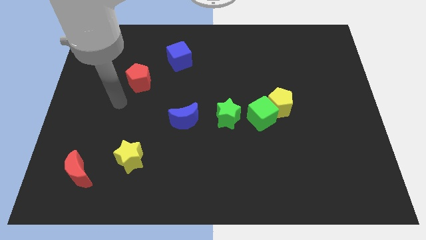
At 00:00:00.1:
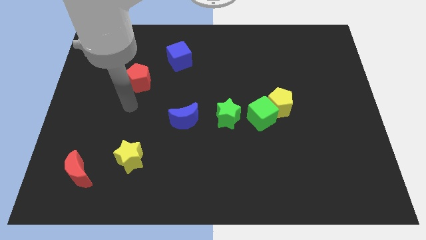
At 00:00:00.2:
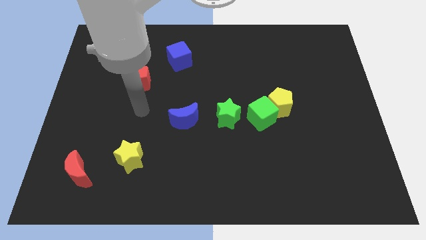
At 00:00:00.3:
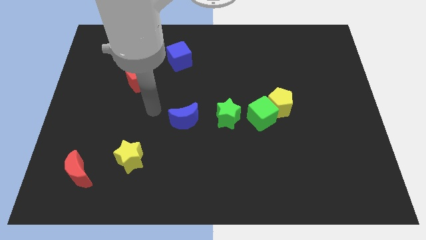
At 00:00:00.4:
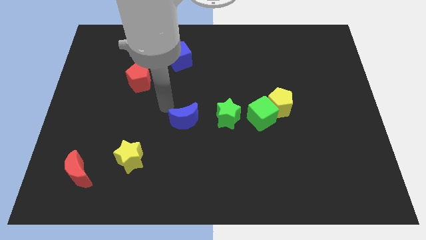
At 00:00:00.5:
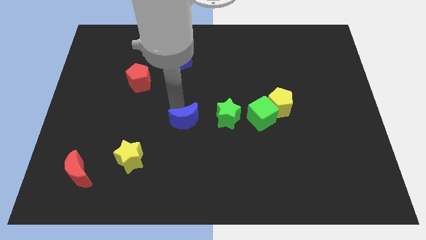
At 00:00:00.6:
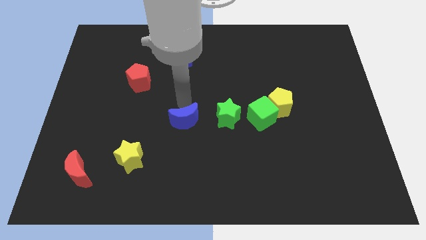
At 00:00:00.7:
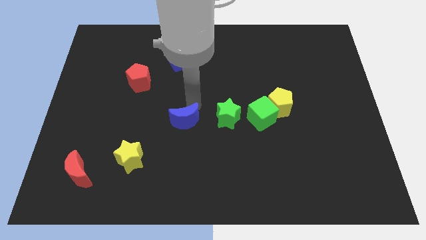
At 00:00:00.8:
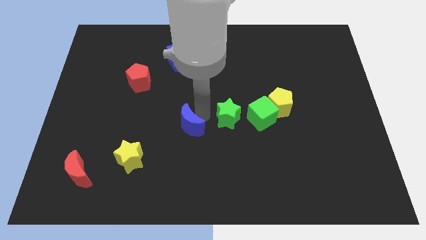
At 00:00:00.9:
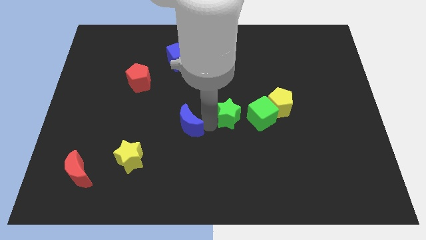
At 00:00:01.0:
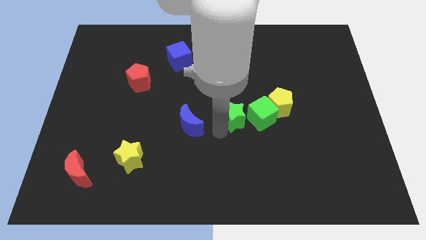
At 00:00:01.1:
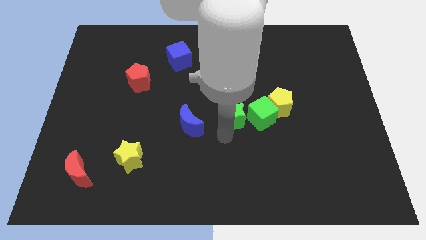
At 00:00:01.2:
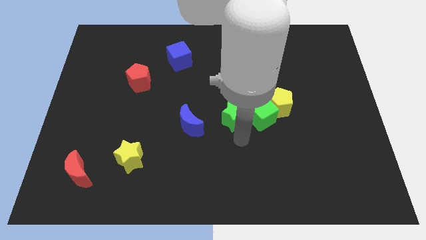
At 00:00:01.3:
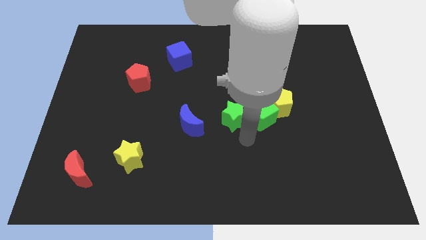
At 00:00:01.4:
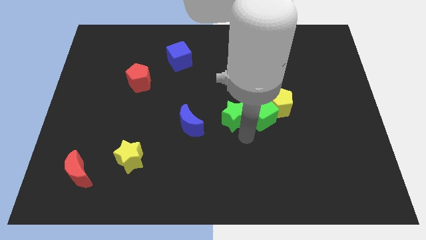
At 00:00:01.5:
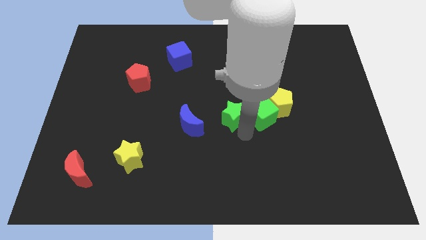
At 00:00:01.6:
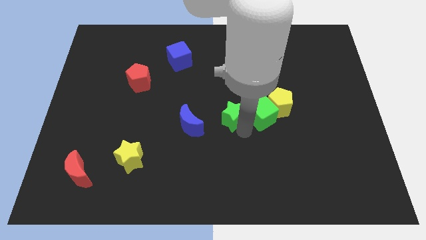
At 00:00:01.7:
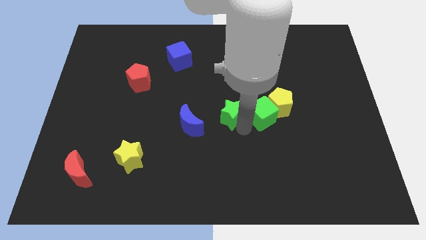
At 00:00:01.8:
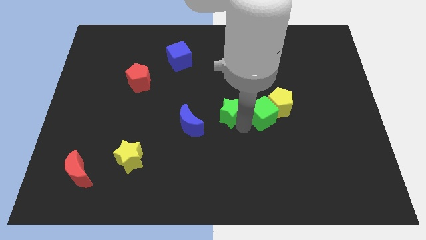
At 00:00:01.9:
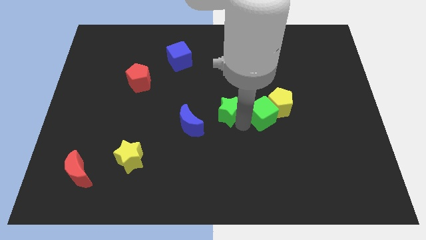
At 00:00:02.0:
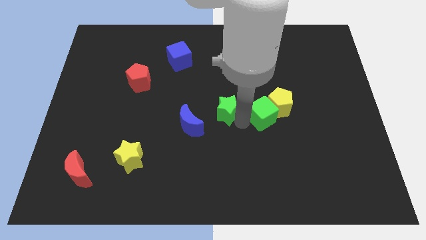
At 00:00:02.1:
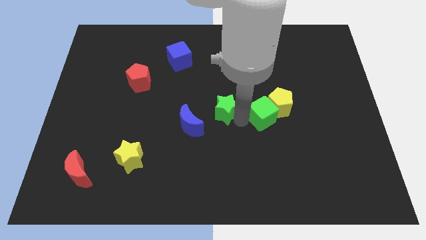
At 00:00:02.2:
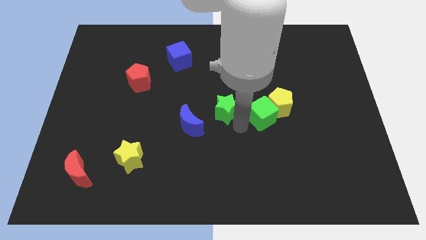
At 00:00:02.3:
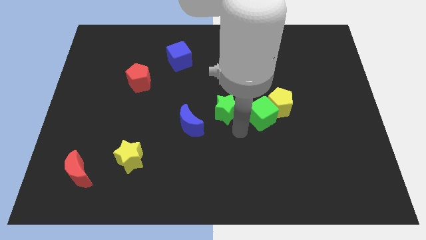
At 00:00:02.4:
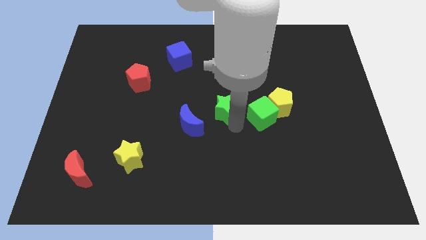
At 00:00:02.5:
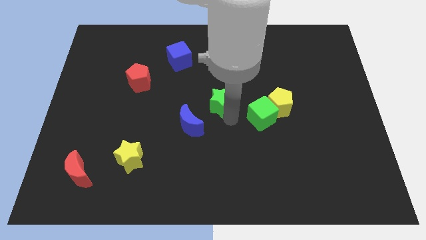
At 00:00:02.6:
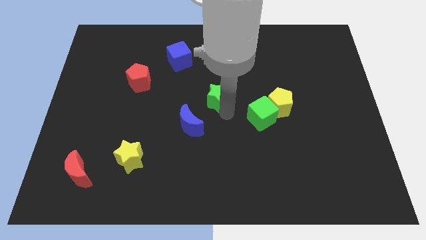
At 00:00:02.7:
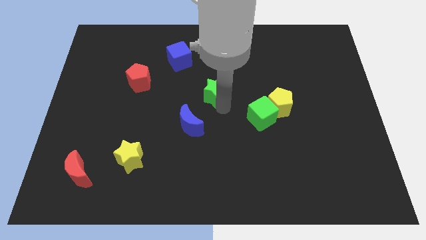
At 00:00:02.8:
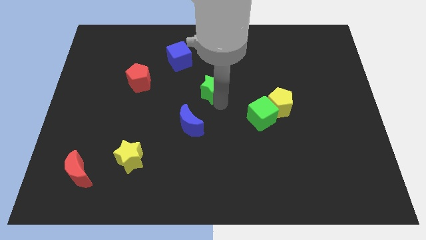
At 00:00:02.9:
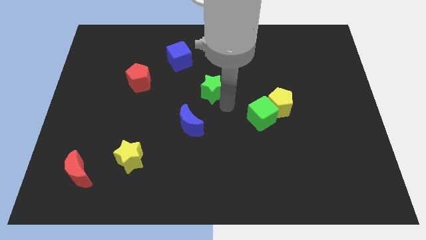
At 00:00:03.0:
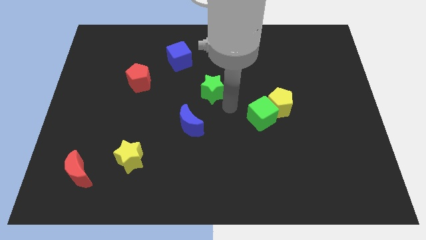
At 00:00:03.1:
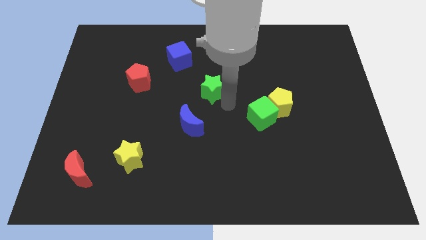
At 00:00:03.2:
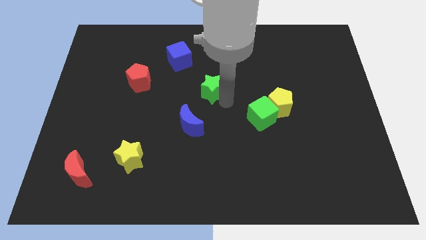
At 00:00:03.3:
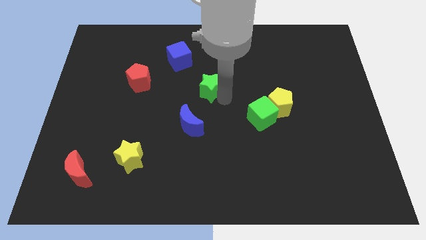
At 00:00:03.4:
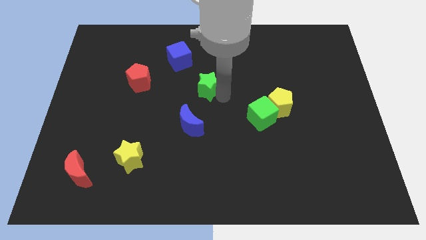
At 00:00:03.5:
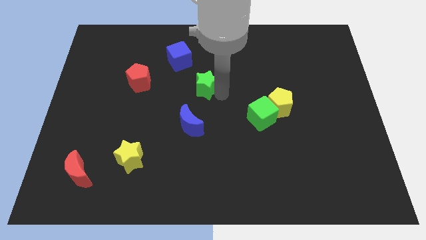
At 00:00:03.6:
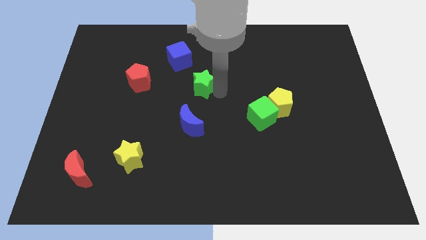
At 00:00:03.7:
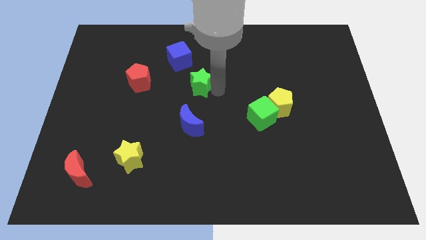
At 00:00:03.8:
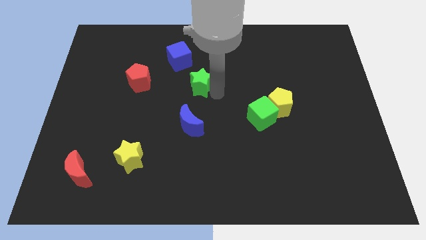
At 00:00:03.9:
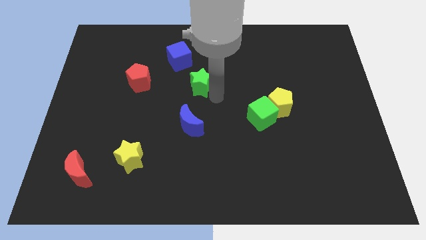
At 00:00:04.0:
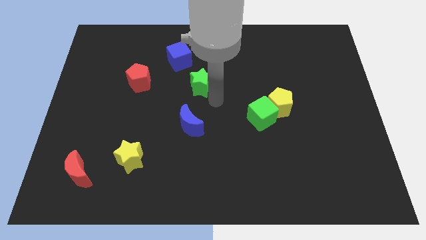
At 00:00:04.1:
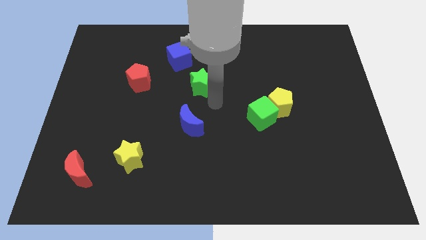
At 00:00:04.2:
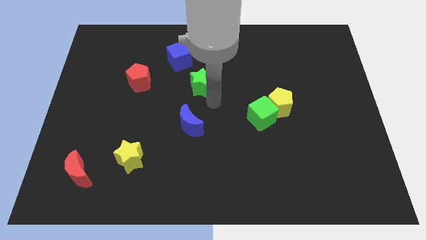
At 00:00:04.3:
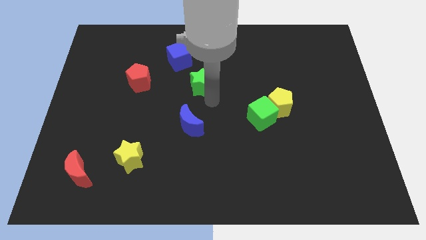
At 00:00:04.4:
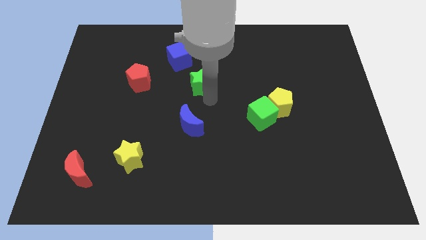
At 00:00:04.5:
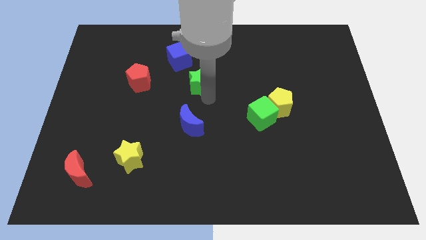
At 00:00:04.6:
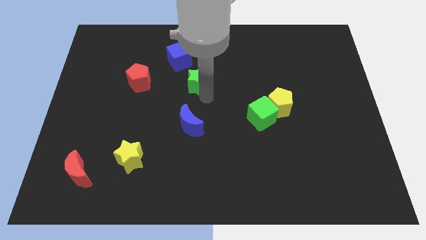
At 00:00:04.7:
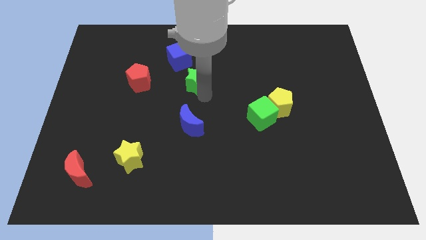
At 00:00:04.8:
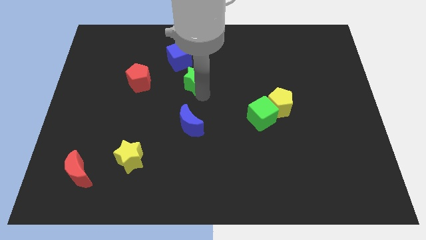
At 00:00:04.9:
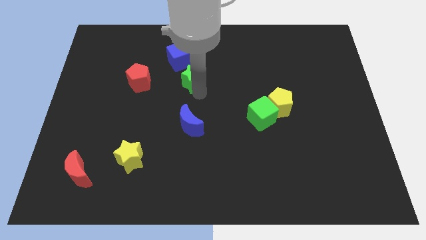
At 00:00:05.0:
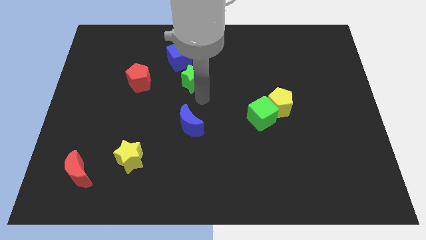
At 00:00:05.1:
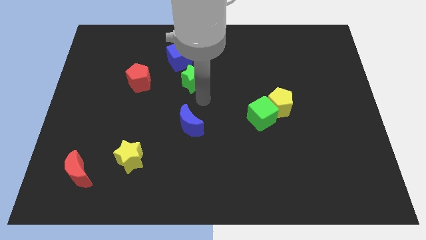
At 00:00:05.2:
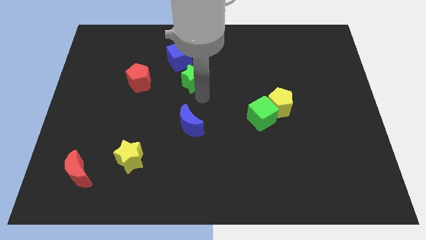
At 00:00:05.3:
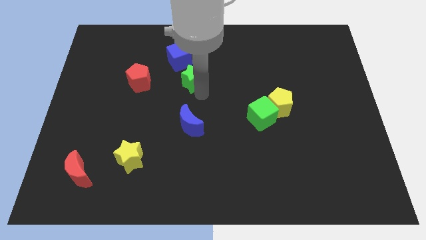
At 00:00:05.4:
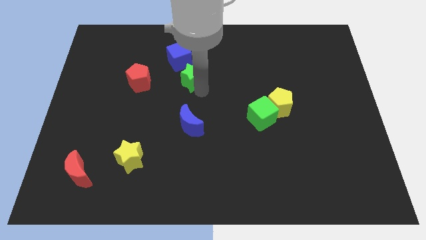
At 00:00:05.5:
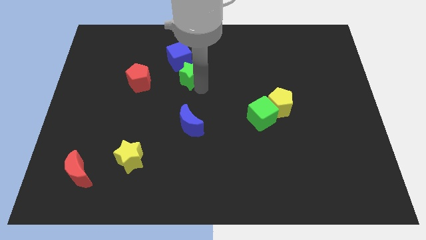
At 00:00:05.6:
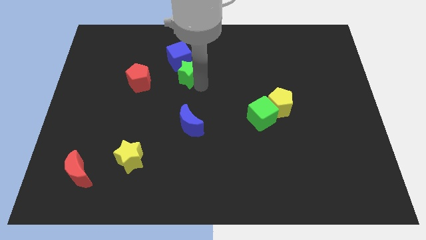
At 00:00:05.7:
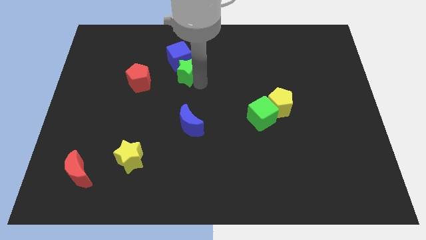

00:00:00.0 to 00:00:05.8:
push the green star close to the blue cube

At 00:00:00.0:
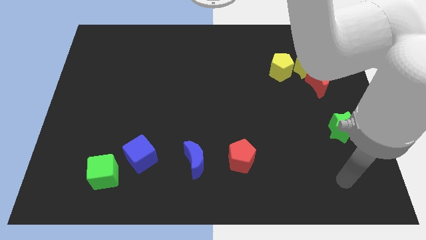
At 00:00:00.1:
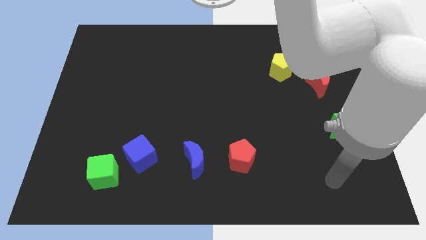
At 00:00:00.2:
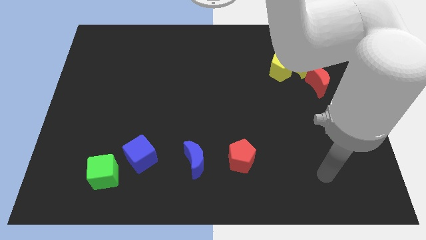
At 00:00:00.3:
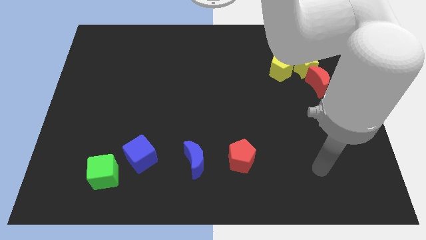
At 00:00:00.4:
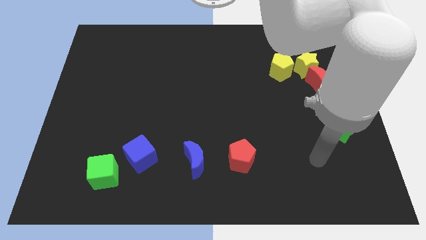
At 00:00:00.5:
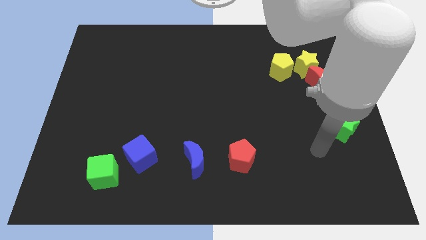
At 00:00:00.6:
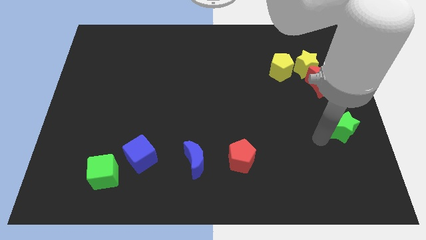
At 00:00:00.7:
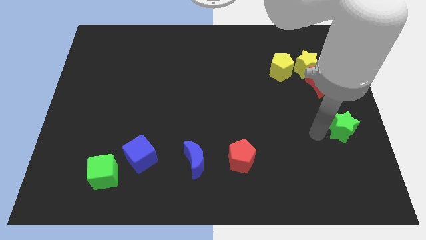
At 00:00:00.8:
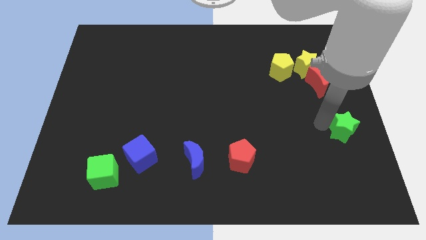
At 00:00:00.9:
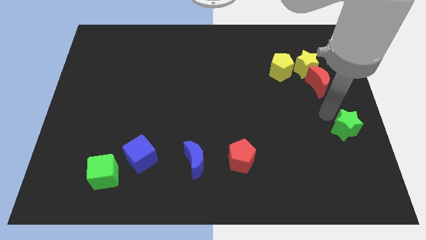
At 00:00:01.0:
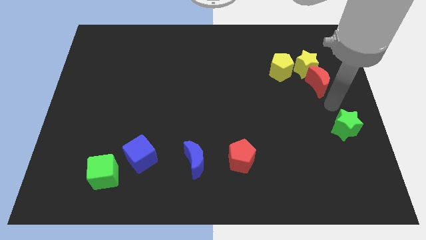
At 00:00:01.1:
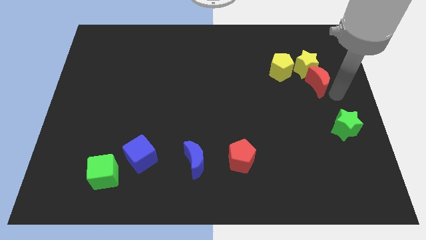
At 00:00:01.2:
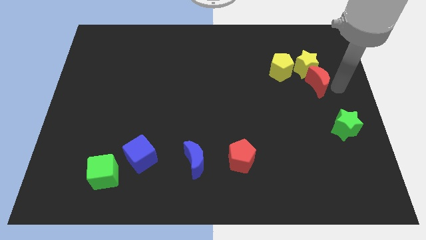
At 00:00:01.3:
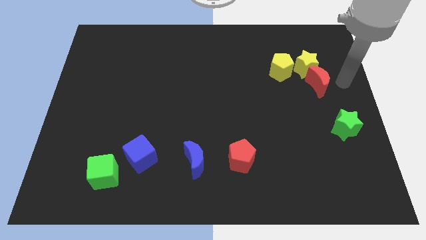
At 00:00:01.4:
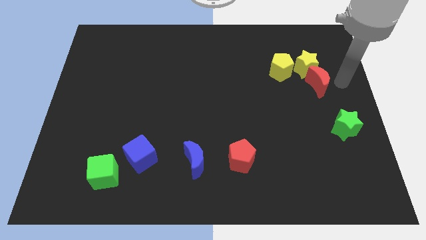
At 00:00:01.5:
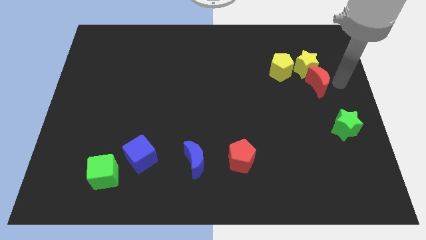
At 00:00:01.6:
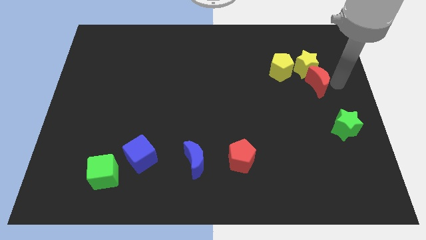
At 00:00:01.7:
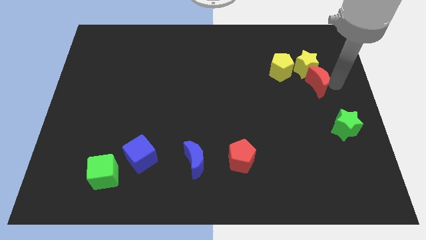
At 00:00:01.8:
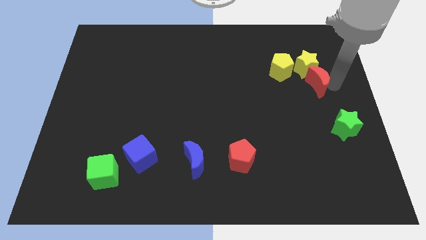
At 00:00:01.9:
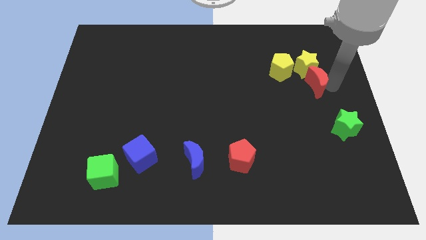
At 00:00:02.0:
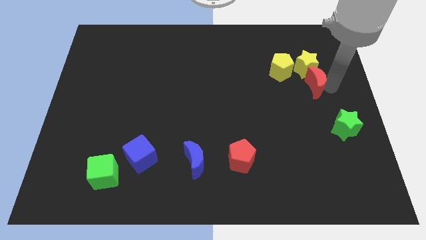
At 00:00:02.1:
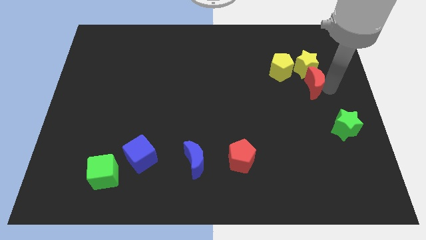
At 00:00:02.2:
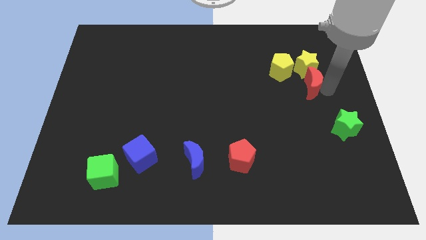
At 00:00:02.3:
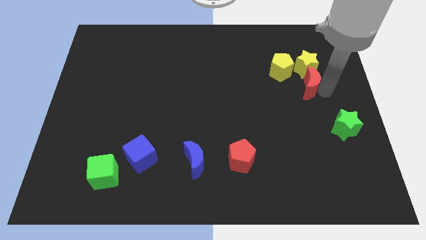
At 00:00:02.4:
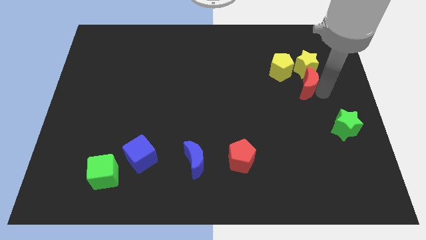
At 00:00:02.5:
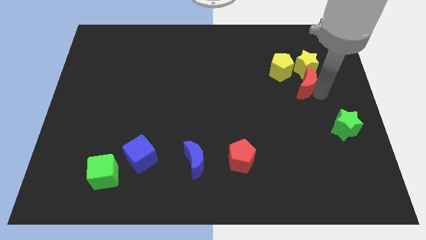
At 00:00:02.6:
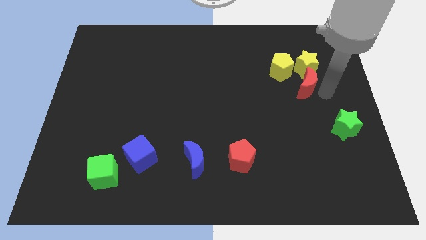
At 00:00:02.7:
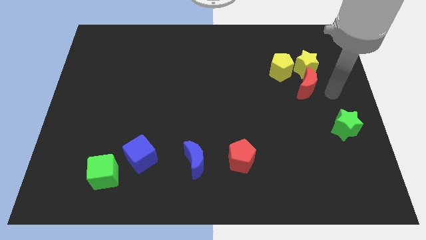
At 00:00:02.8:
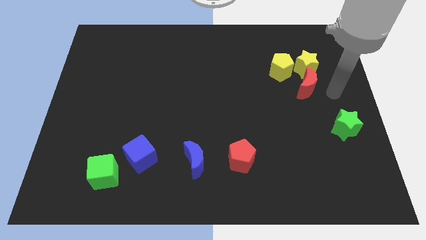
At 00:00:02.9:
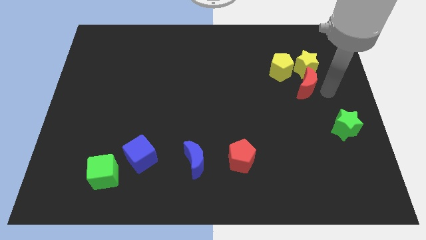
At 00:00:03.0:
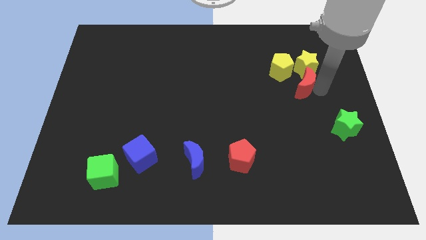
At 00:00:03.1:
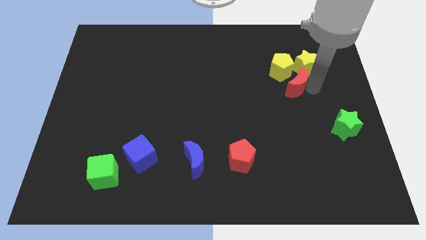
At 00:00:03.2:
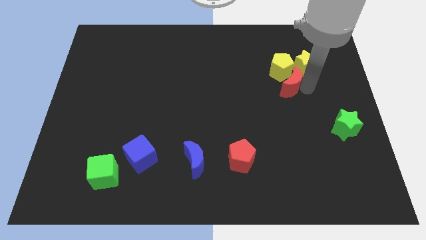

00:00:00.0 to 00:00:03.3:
push the red moon close to the yellow pentagon
